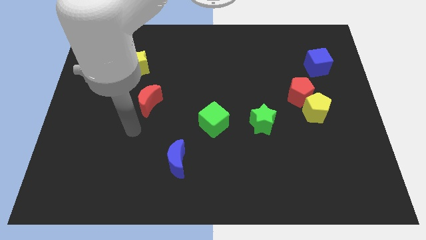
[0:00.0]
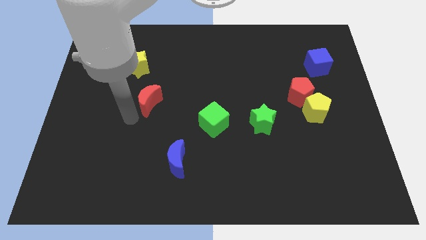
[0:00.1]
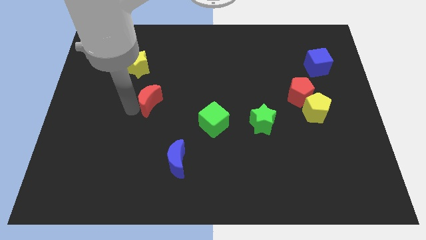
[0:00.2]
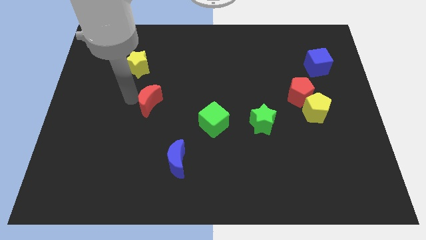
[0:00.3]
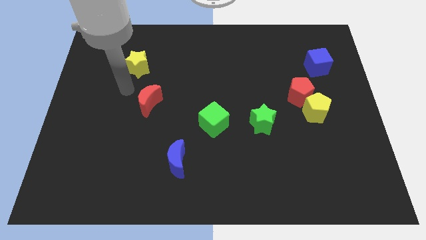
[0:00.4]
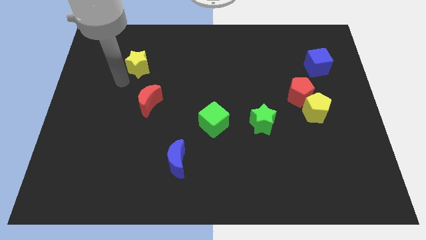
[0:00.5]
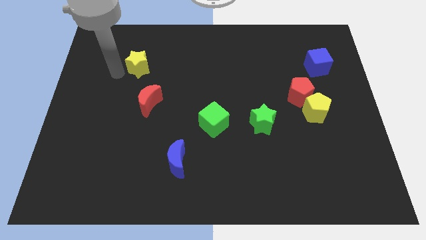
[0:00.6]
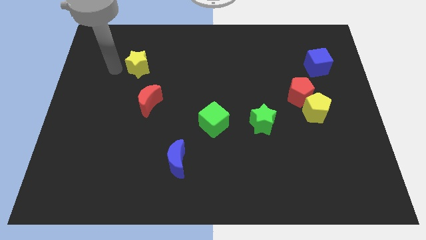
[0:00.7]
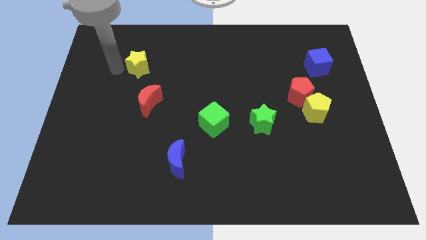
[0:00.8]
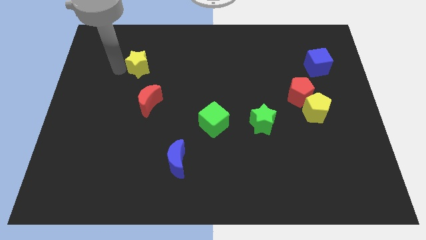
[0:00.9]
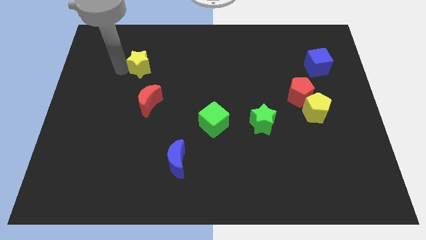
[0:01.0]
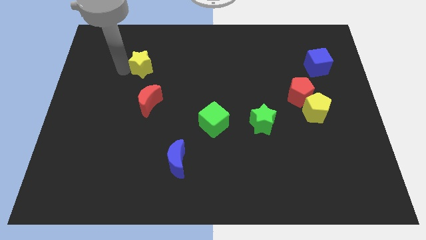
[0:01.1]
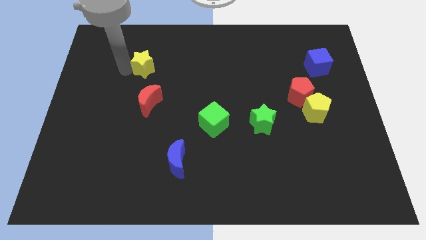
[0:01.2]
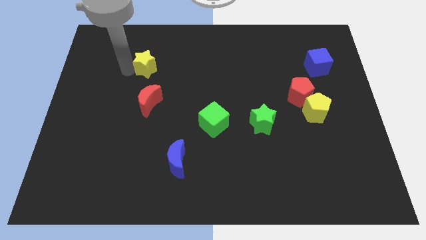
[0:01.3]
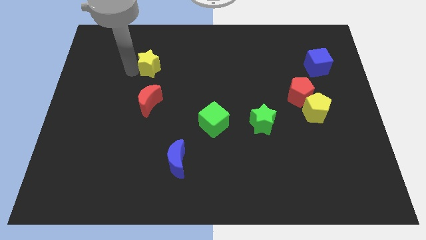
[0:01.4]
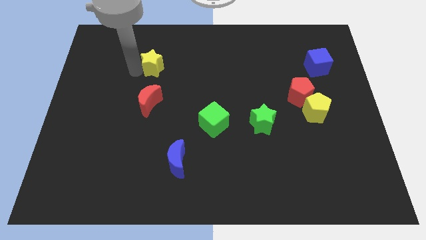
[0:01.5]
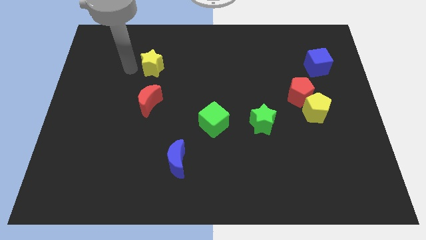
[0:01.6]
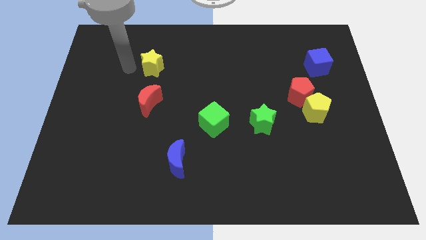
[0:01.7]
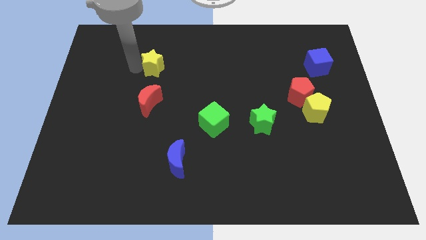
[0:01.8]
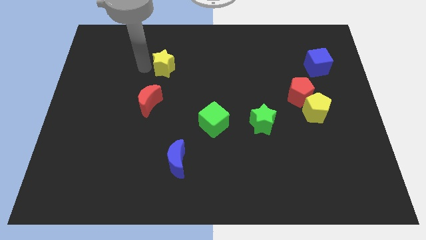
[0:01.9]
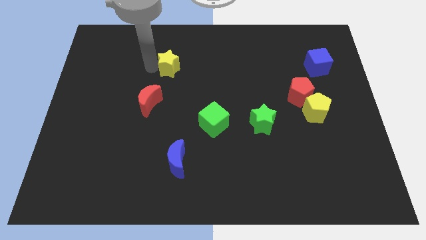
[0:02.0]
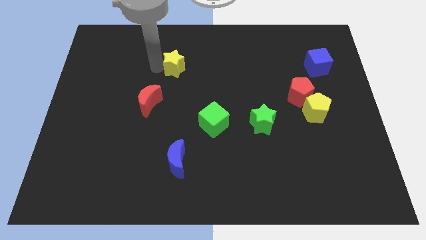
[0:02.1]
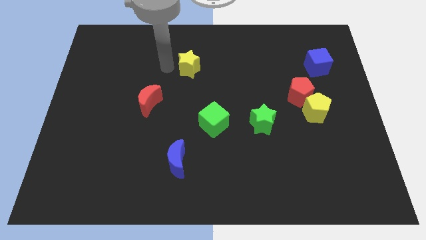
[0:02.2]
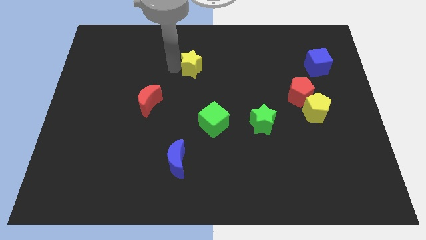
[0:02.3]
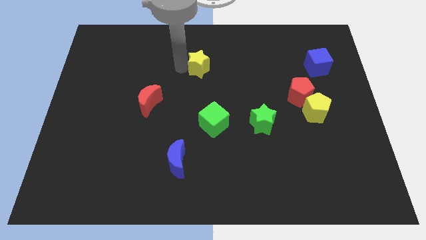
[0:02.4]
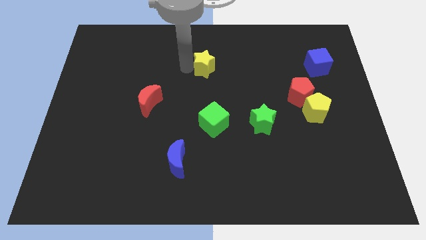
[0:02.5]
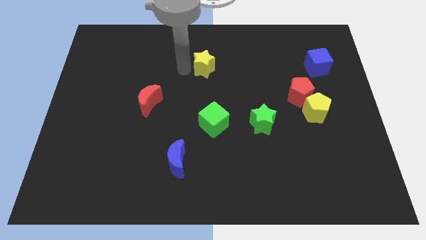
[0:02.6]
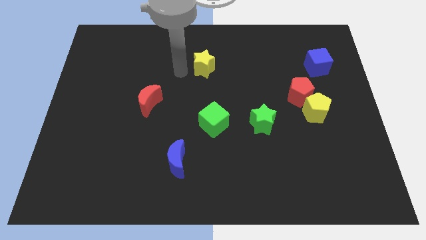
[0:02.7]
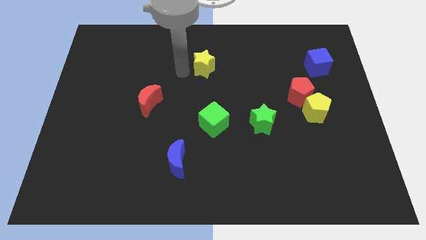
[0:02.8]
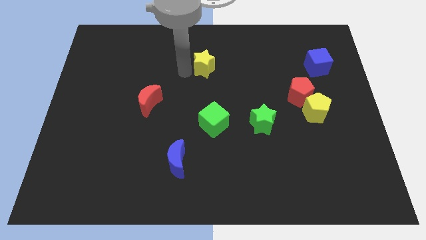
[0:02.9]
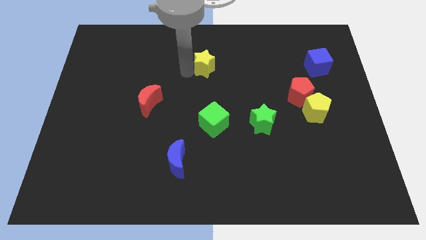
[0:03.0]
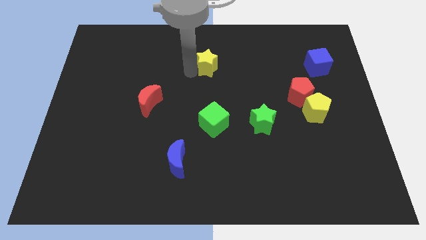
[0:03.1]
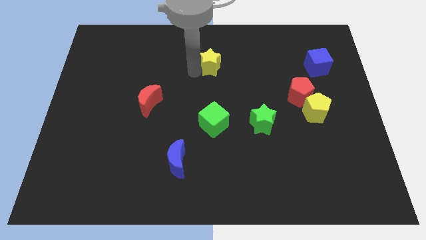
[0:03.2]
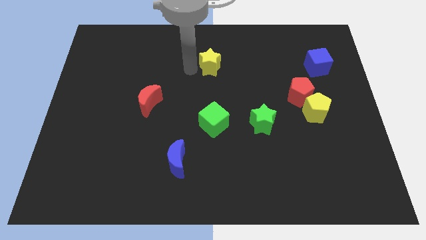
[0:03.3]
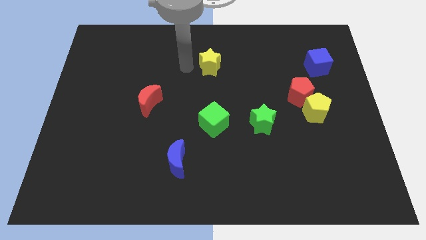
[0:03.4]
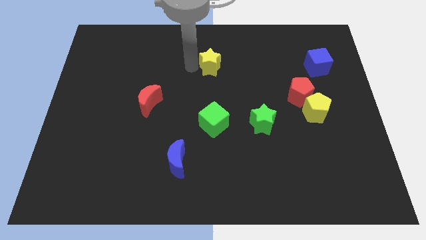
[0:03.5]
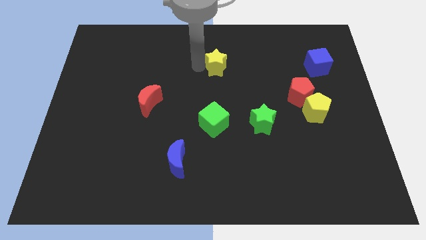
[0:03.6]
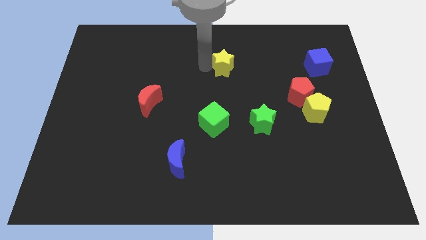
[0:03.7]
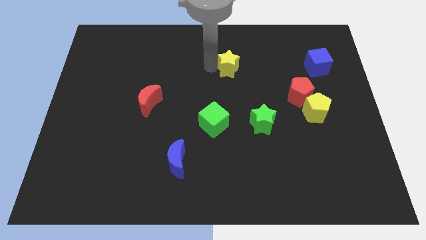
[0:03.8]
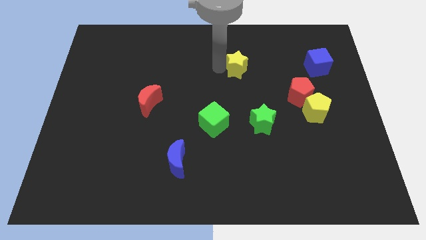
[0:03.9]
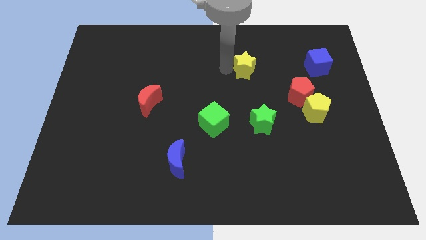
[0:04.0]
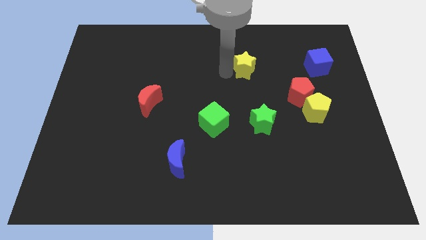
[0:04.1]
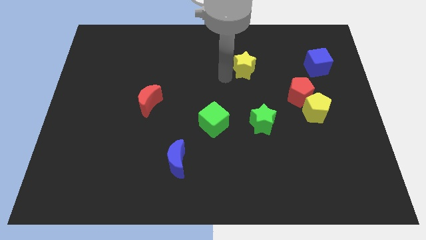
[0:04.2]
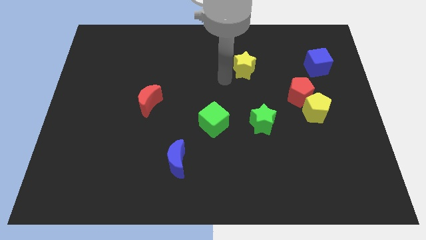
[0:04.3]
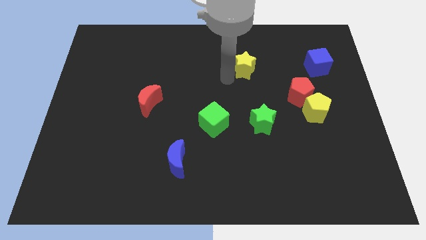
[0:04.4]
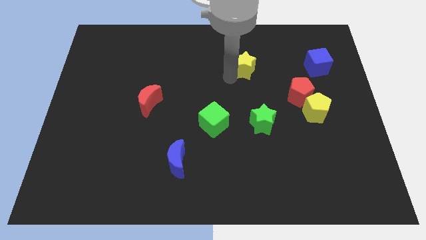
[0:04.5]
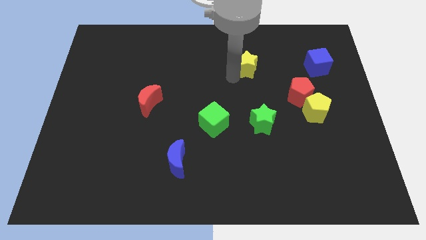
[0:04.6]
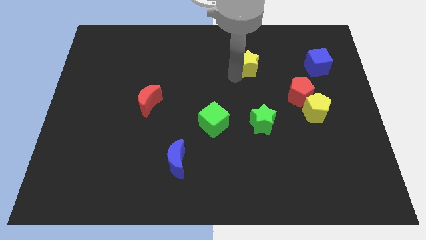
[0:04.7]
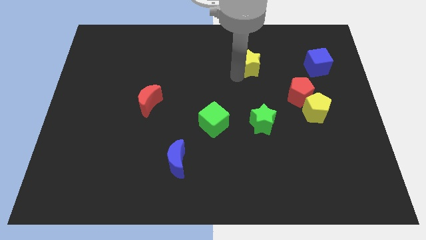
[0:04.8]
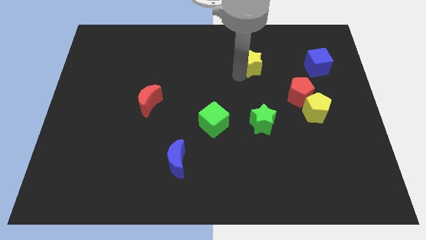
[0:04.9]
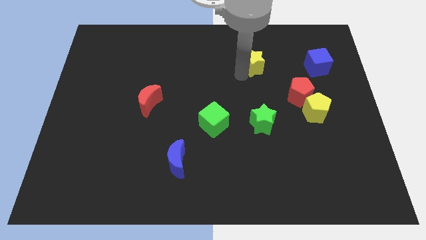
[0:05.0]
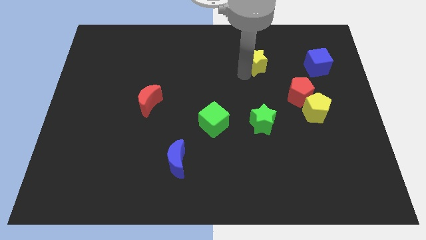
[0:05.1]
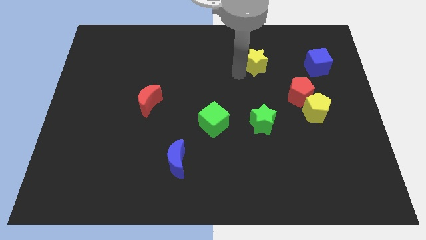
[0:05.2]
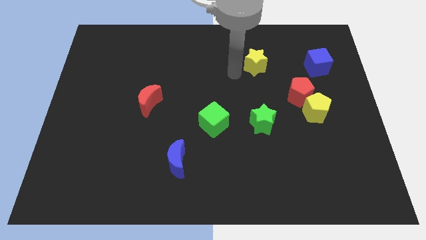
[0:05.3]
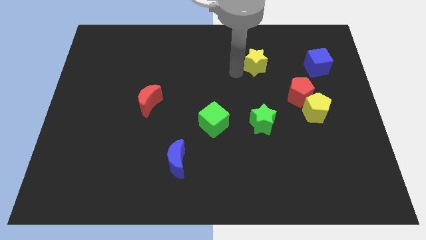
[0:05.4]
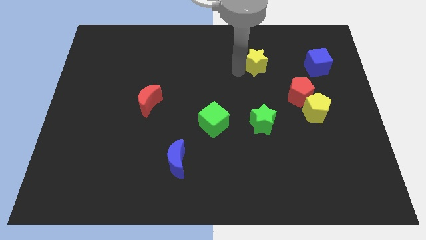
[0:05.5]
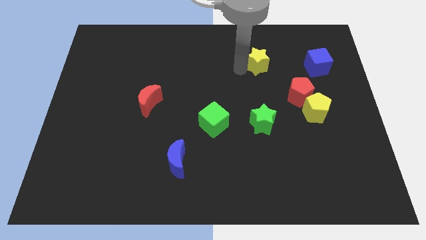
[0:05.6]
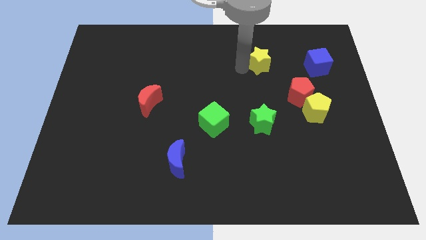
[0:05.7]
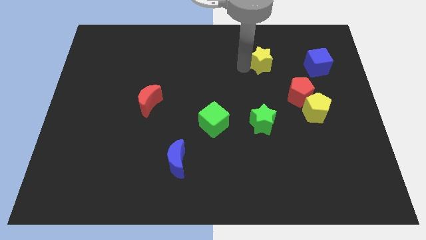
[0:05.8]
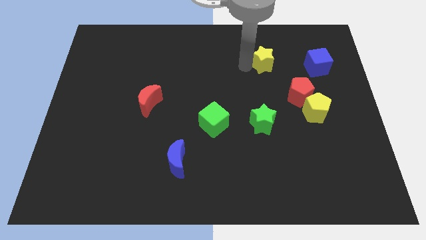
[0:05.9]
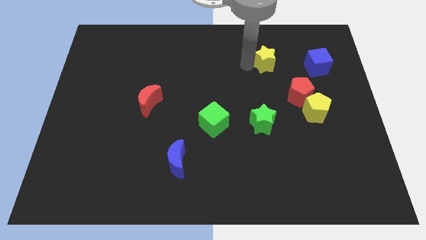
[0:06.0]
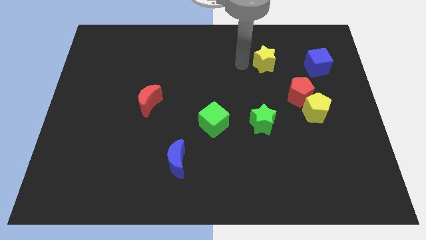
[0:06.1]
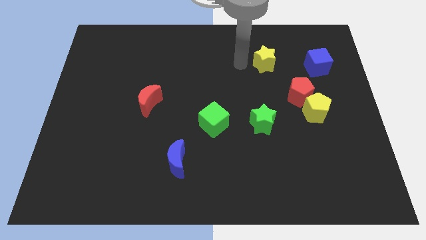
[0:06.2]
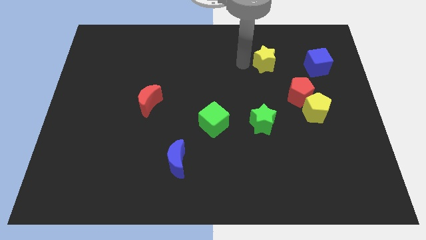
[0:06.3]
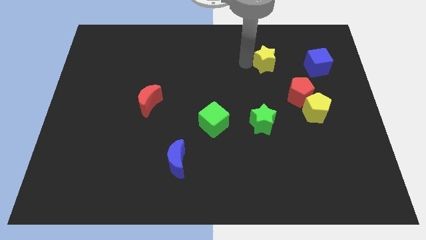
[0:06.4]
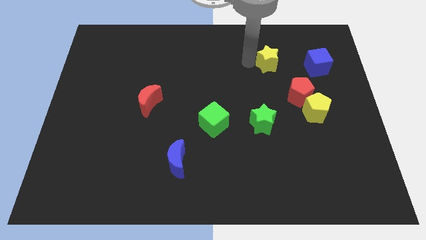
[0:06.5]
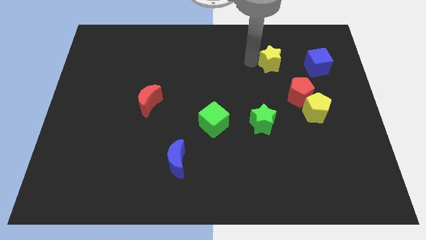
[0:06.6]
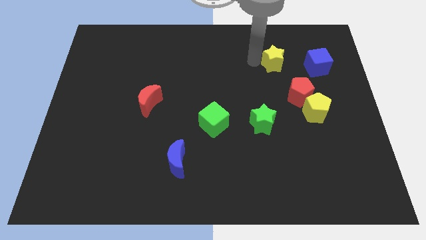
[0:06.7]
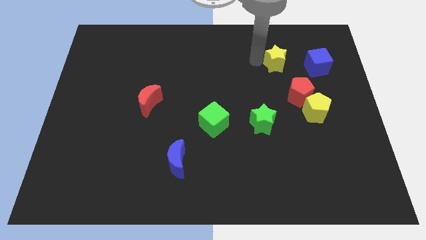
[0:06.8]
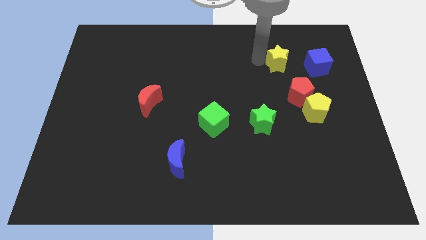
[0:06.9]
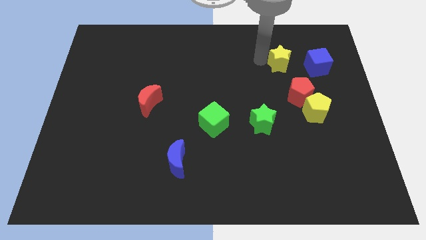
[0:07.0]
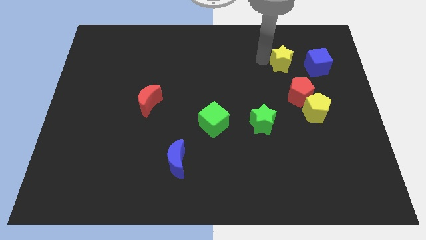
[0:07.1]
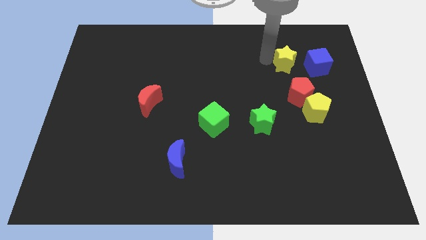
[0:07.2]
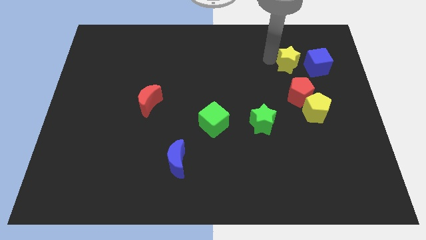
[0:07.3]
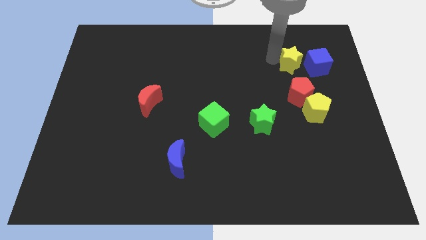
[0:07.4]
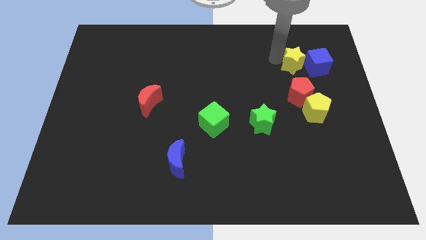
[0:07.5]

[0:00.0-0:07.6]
slide the yellow star to the blue cube

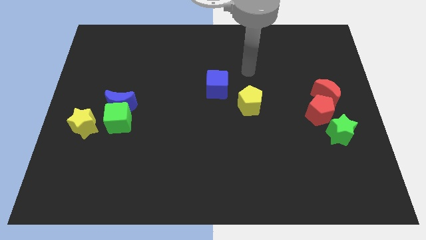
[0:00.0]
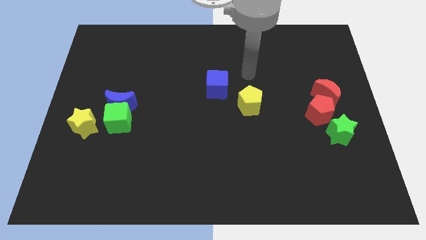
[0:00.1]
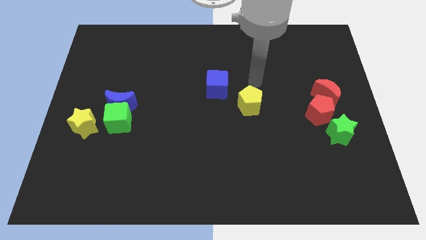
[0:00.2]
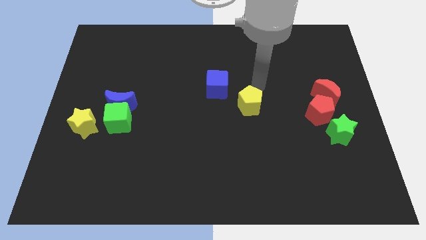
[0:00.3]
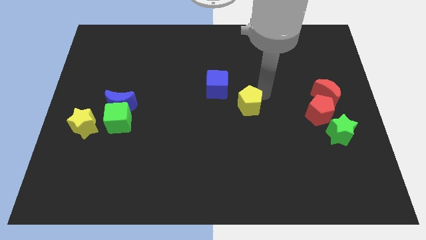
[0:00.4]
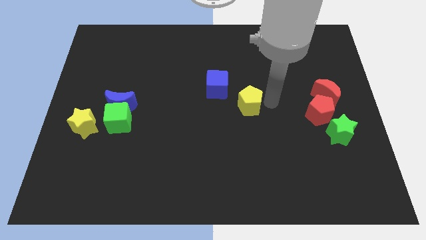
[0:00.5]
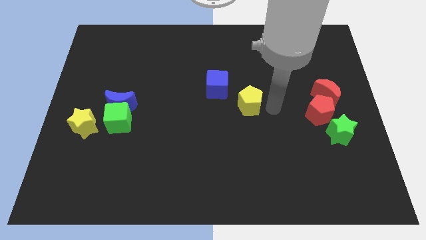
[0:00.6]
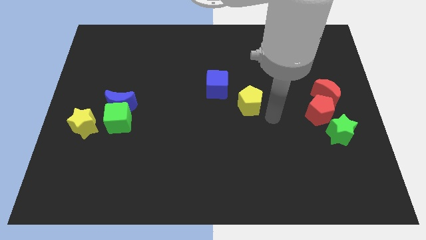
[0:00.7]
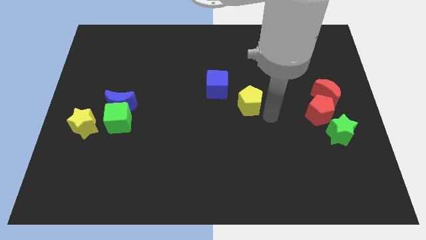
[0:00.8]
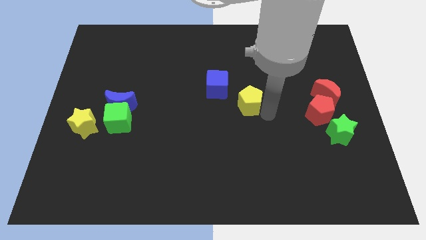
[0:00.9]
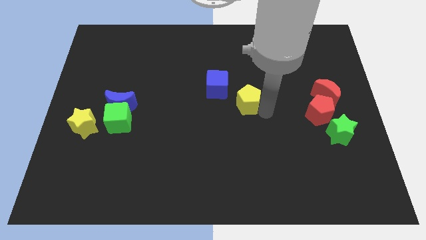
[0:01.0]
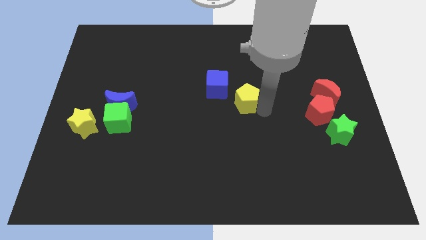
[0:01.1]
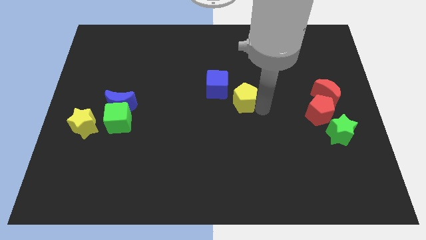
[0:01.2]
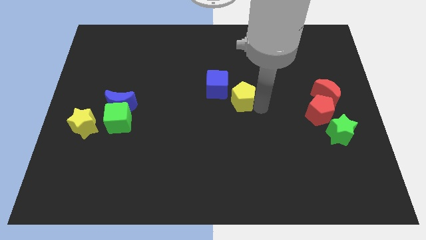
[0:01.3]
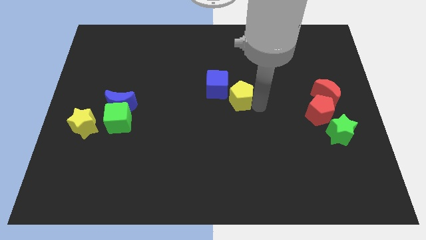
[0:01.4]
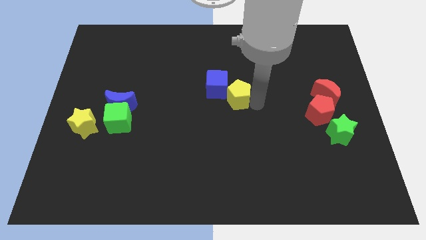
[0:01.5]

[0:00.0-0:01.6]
slide the yellow pentagon next to the blue cube
